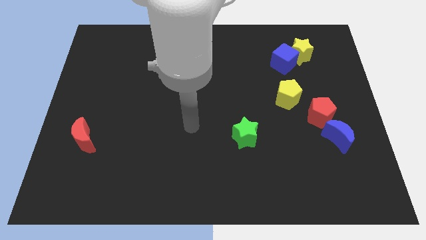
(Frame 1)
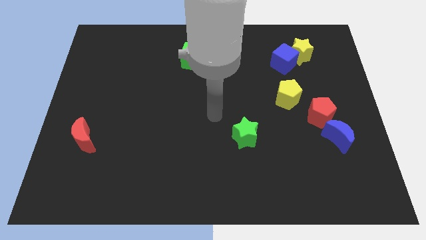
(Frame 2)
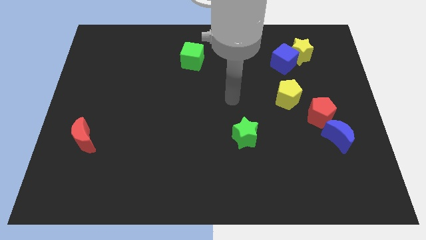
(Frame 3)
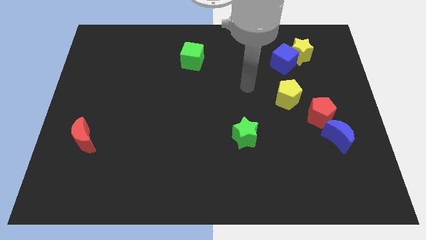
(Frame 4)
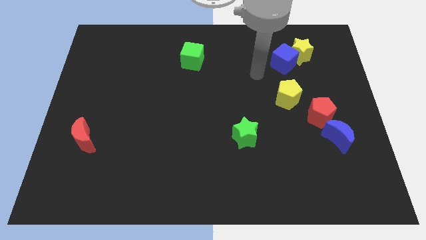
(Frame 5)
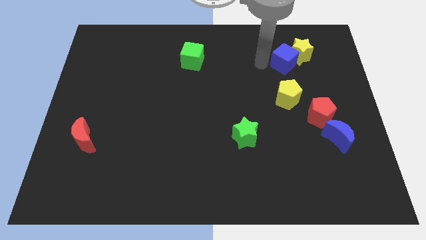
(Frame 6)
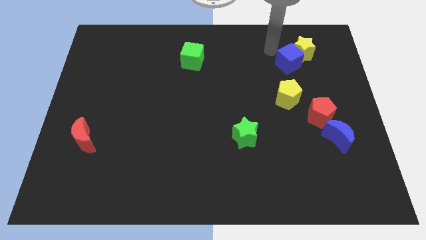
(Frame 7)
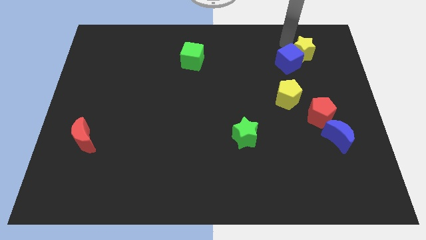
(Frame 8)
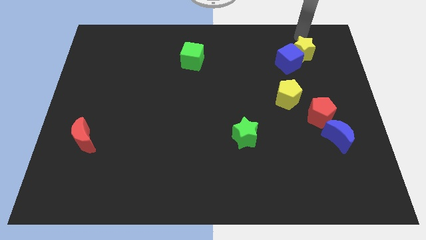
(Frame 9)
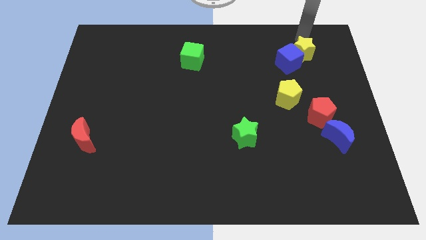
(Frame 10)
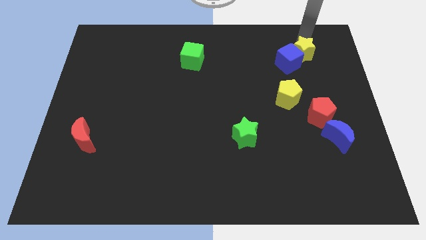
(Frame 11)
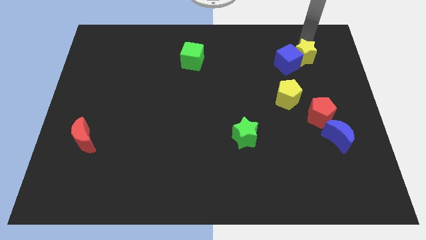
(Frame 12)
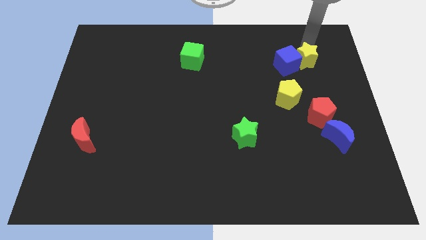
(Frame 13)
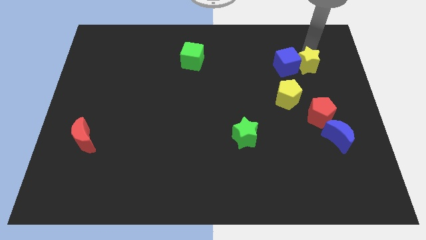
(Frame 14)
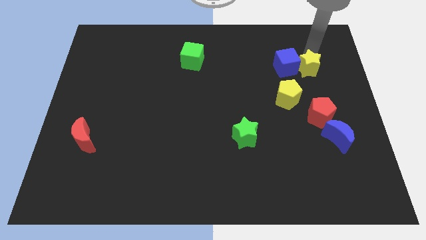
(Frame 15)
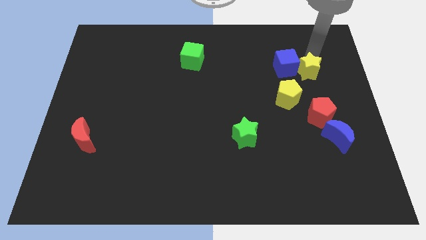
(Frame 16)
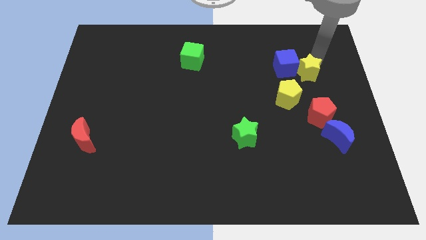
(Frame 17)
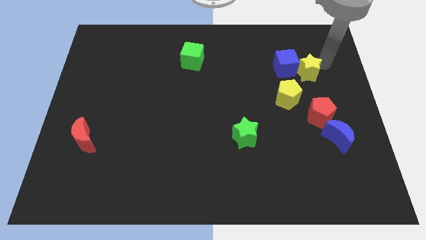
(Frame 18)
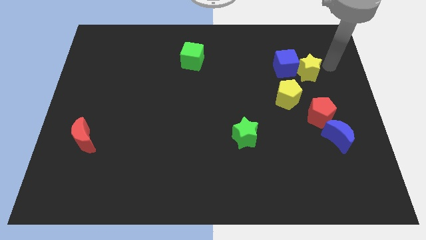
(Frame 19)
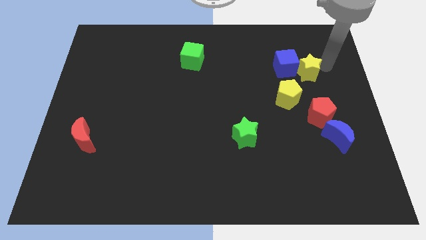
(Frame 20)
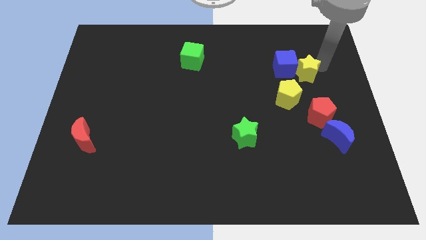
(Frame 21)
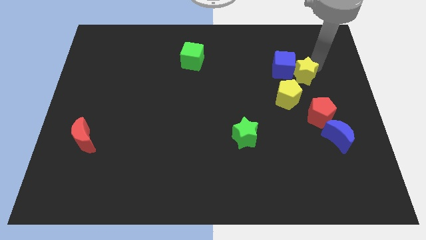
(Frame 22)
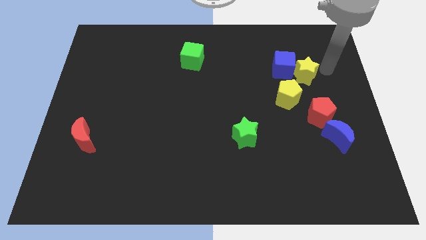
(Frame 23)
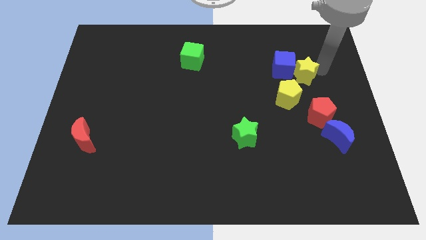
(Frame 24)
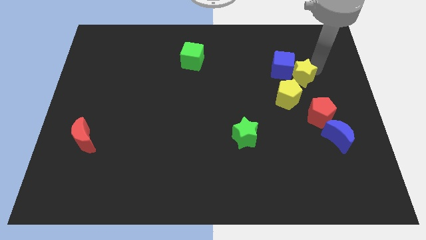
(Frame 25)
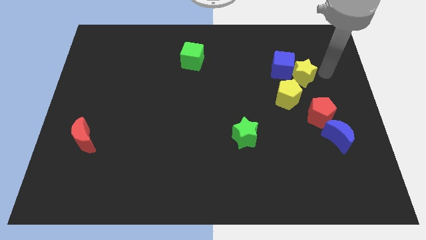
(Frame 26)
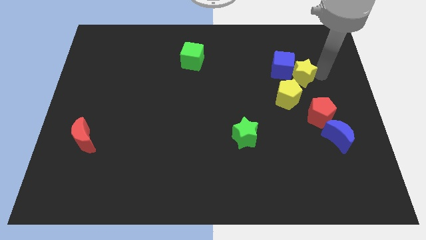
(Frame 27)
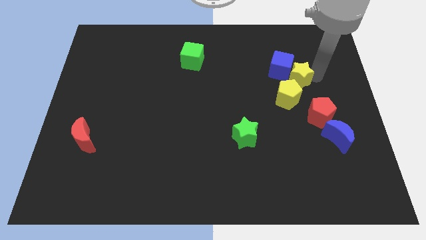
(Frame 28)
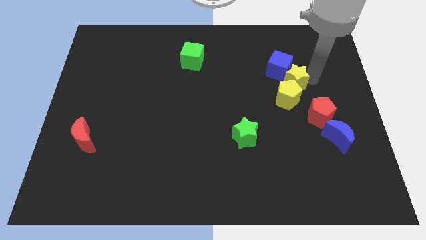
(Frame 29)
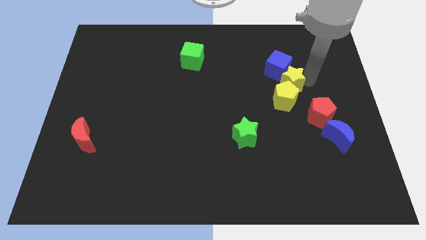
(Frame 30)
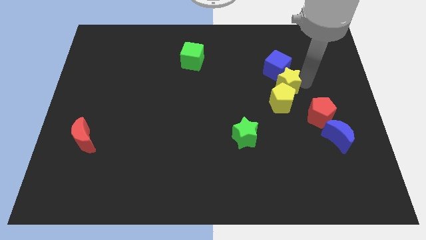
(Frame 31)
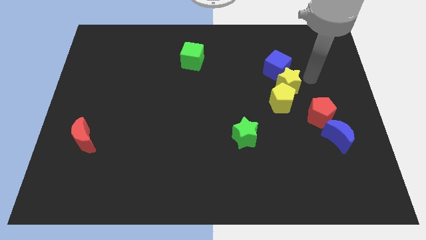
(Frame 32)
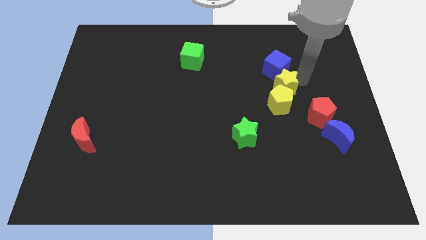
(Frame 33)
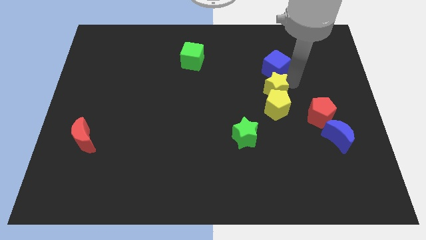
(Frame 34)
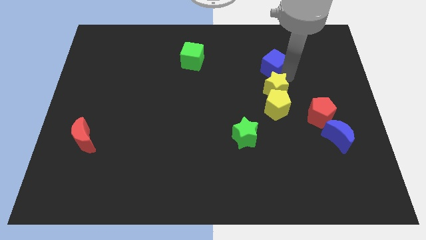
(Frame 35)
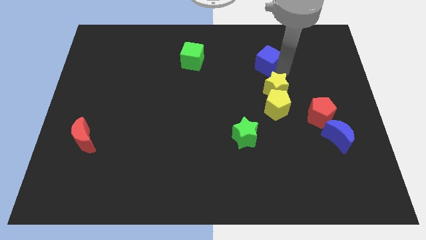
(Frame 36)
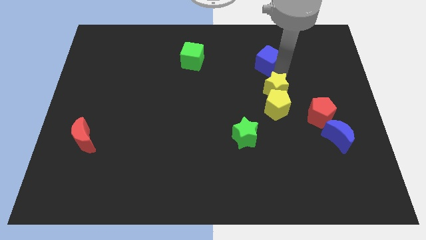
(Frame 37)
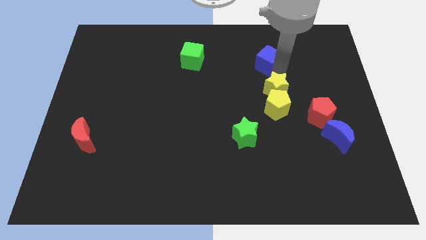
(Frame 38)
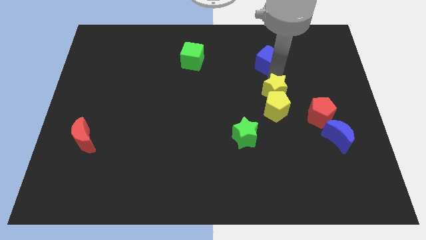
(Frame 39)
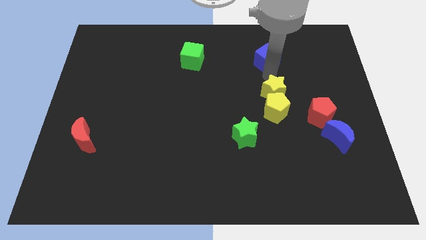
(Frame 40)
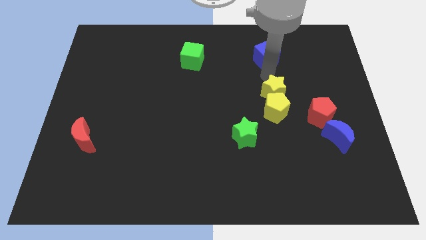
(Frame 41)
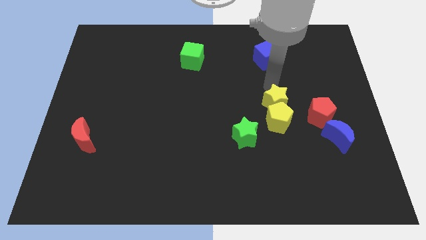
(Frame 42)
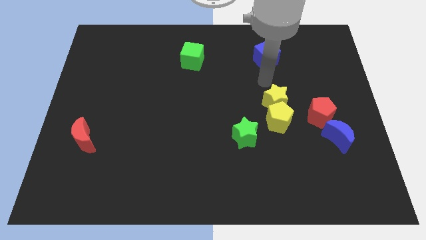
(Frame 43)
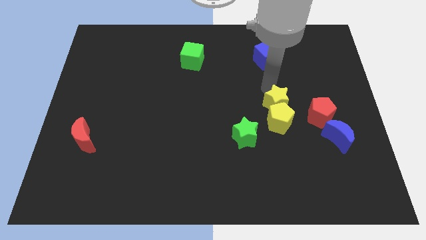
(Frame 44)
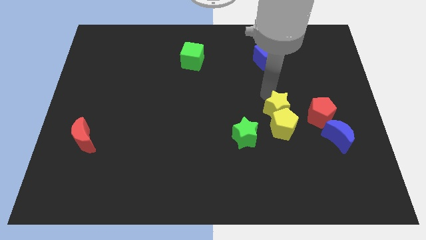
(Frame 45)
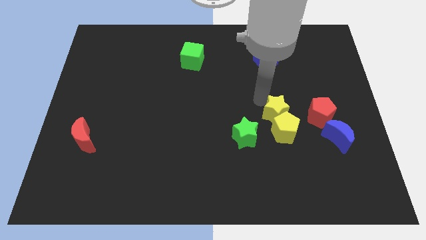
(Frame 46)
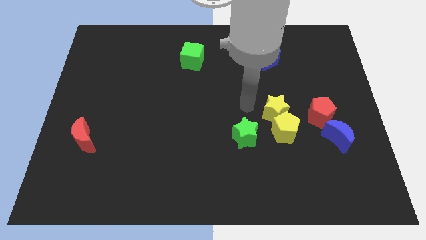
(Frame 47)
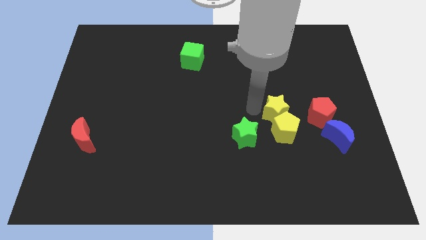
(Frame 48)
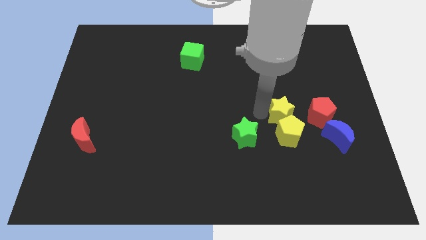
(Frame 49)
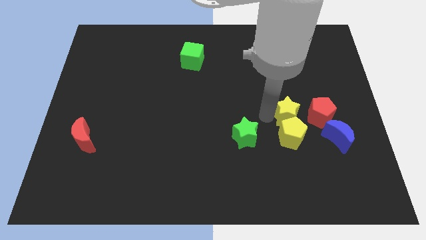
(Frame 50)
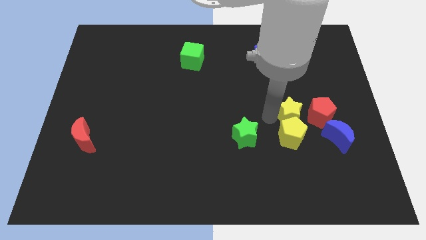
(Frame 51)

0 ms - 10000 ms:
push the yellow star diagonally up and to the left of the blue moon

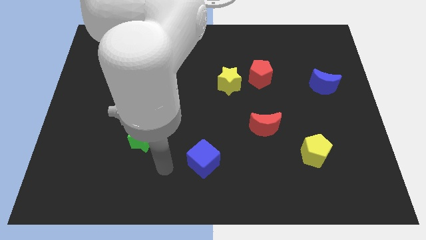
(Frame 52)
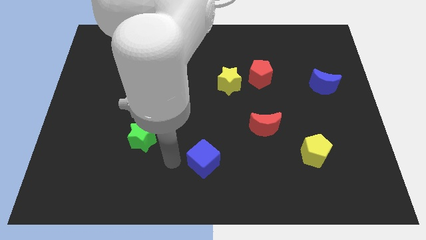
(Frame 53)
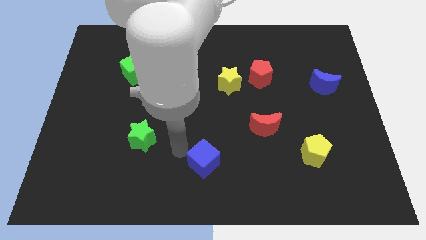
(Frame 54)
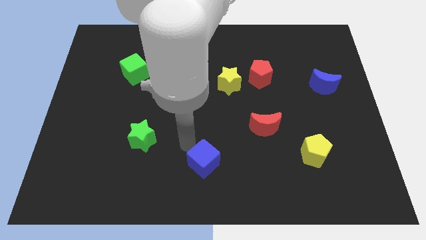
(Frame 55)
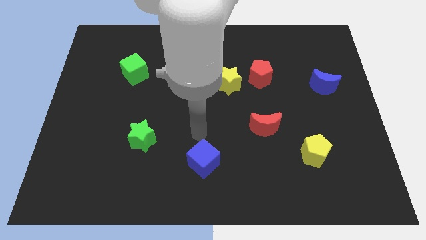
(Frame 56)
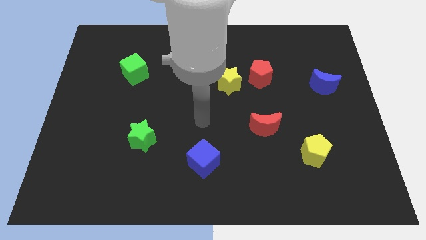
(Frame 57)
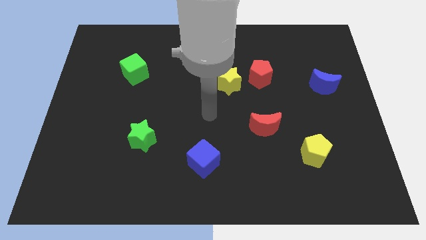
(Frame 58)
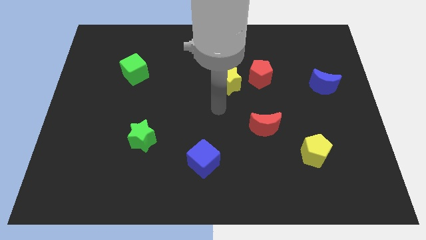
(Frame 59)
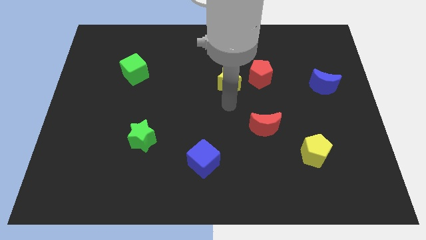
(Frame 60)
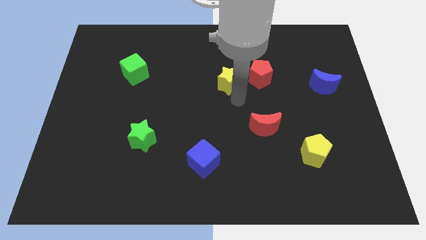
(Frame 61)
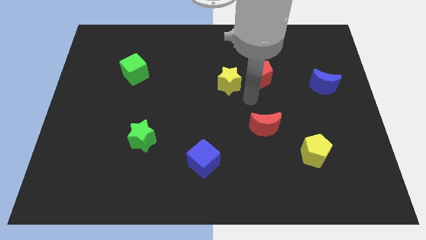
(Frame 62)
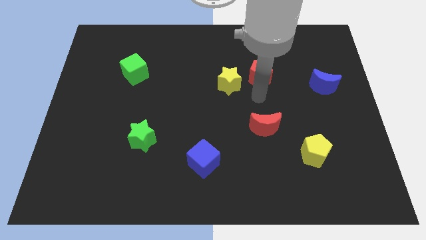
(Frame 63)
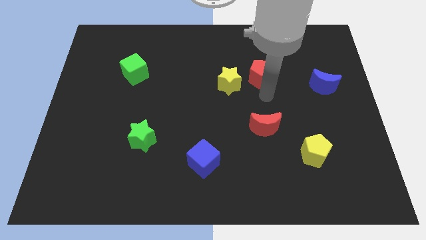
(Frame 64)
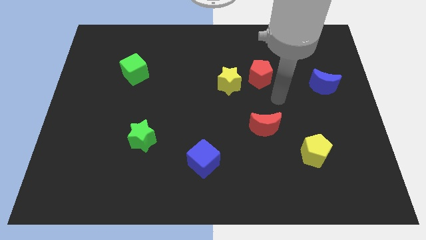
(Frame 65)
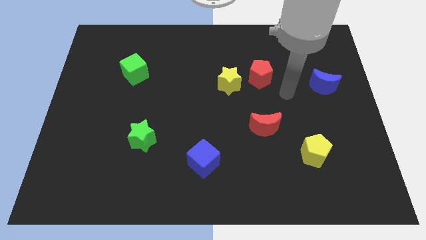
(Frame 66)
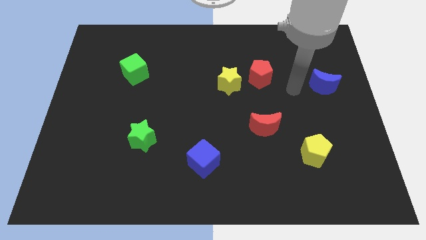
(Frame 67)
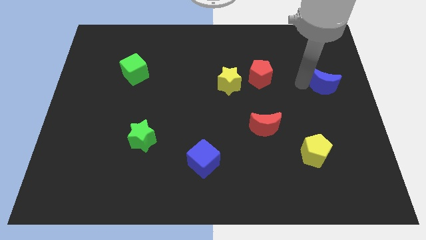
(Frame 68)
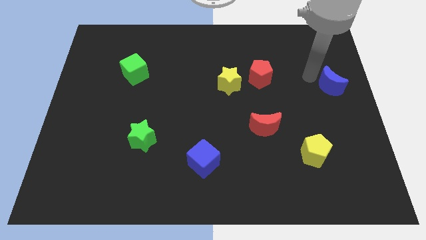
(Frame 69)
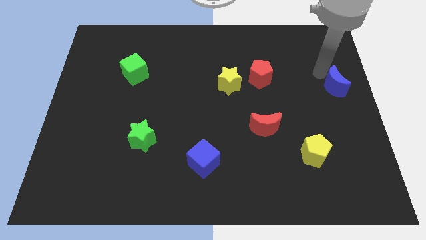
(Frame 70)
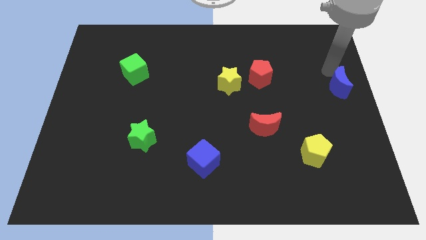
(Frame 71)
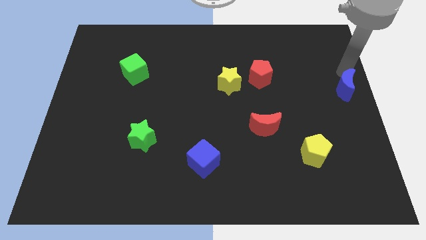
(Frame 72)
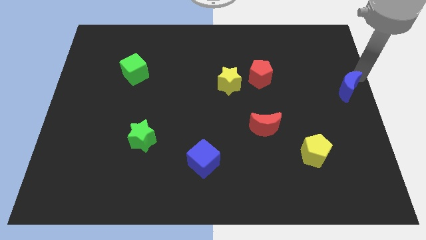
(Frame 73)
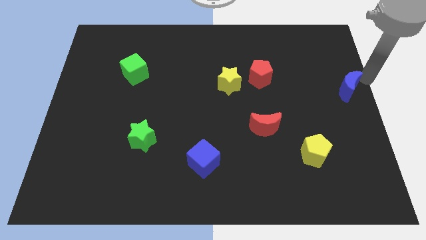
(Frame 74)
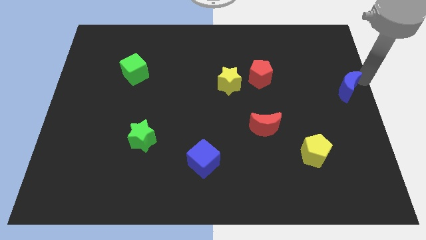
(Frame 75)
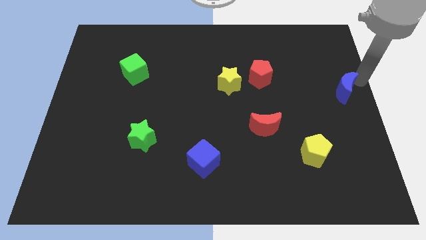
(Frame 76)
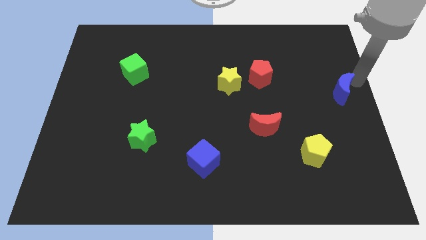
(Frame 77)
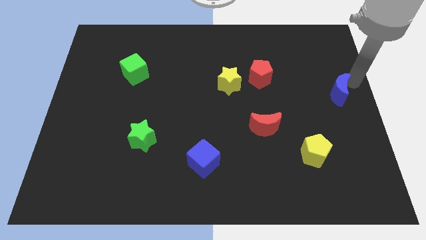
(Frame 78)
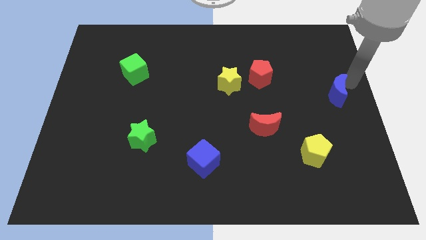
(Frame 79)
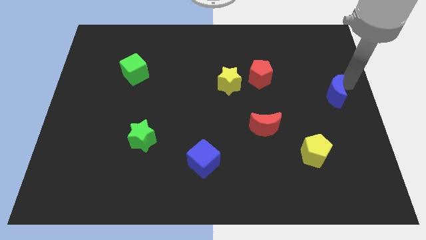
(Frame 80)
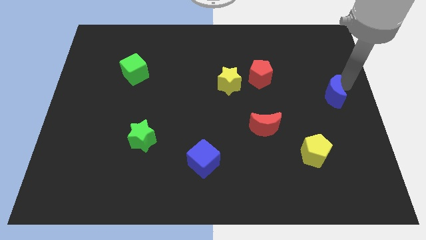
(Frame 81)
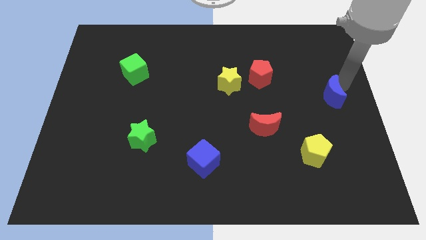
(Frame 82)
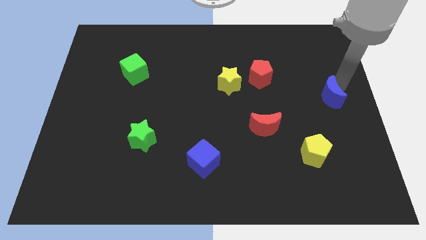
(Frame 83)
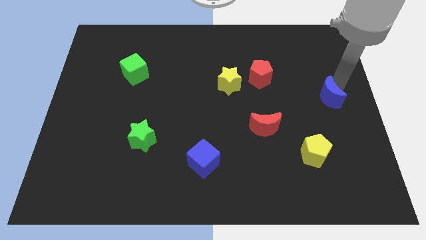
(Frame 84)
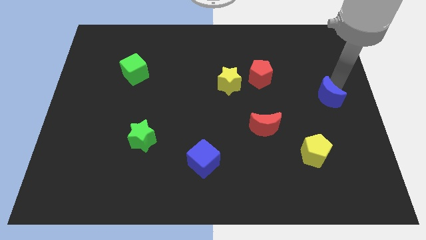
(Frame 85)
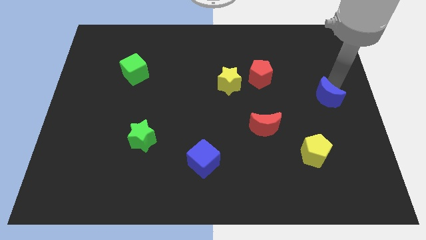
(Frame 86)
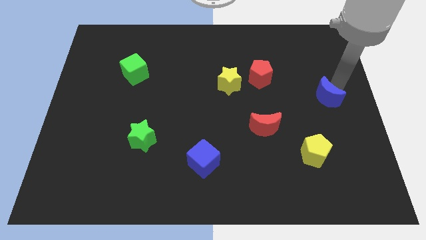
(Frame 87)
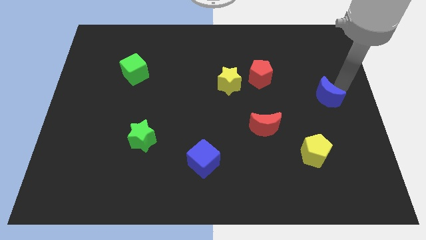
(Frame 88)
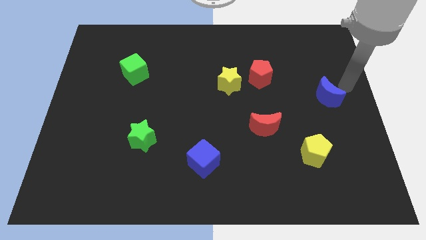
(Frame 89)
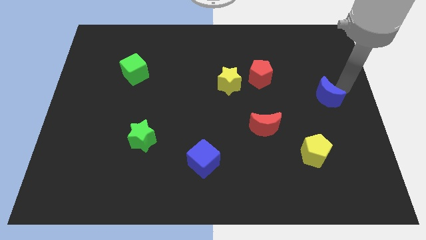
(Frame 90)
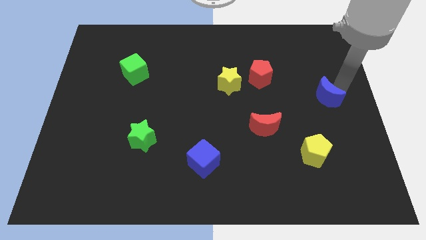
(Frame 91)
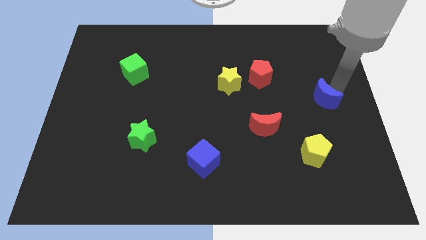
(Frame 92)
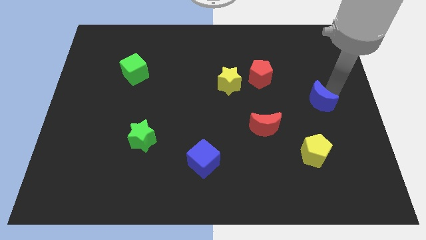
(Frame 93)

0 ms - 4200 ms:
push the blue moon above the yellow pentagon
